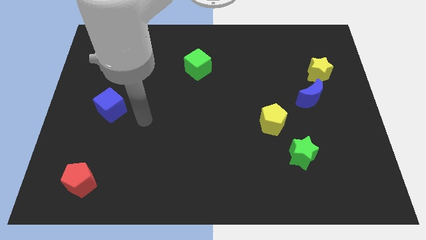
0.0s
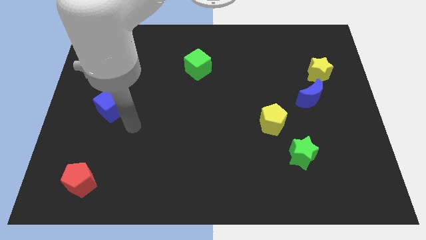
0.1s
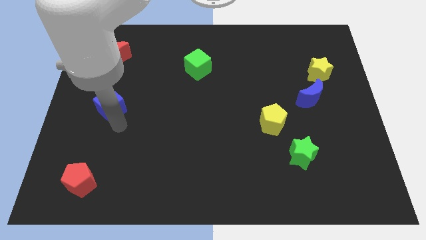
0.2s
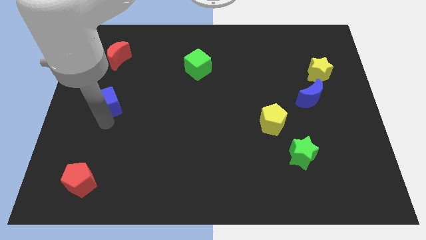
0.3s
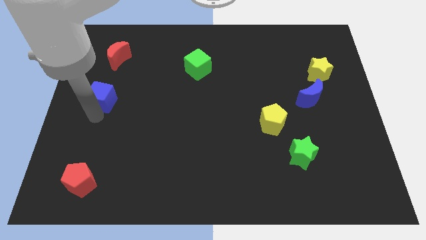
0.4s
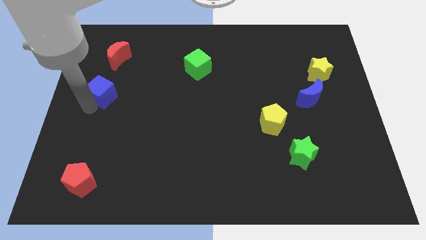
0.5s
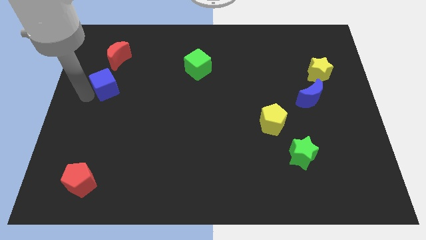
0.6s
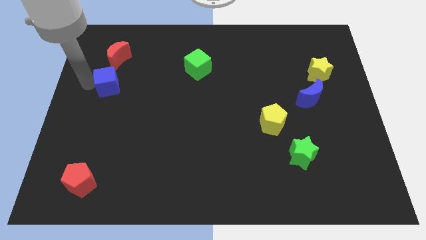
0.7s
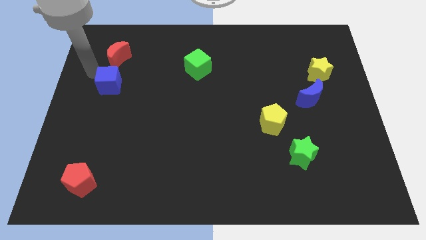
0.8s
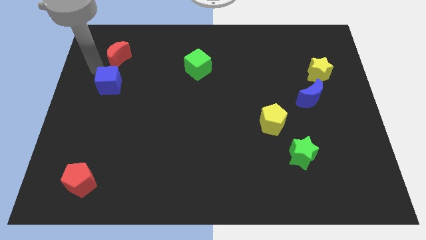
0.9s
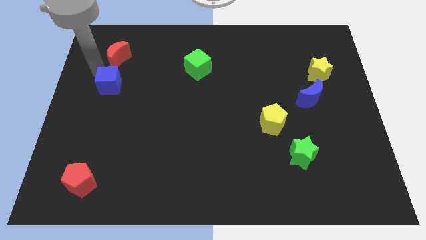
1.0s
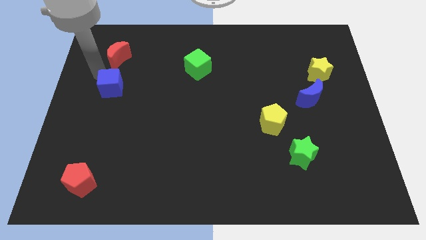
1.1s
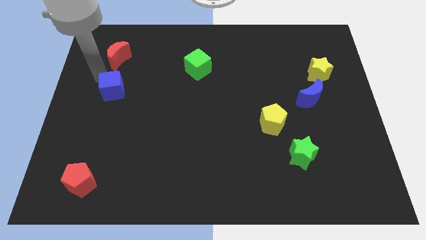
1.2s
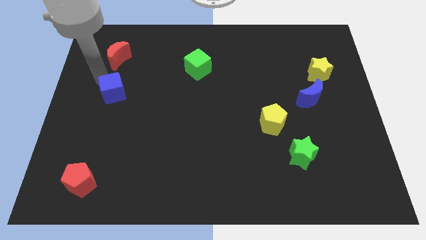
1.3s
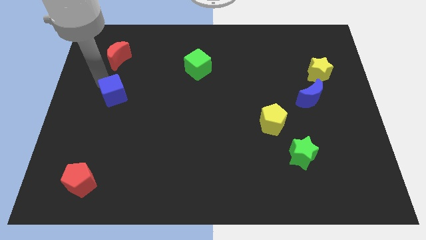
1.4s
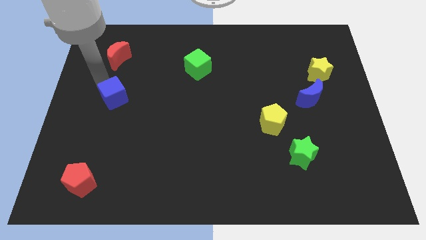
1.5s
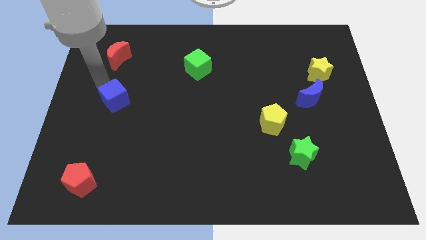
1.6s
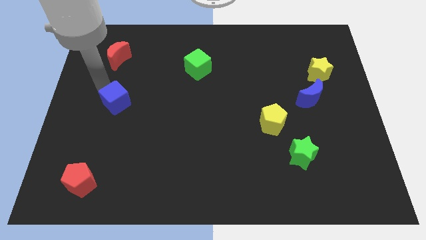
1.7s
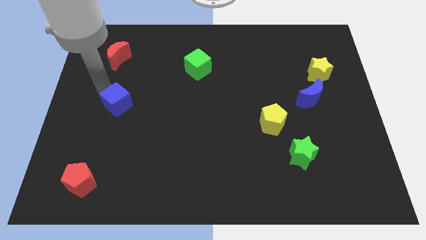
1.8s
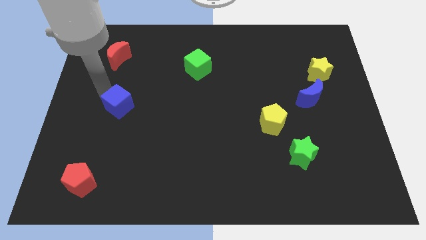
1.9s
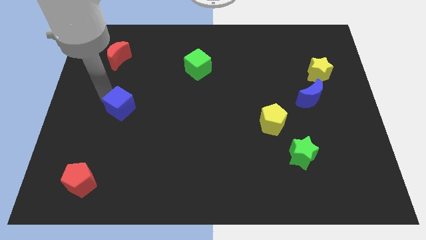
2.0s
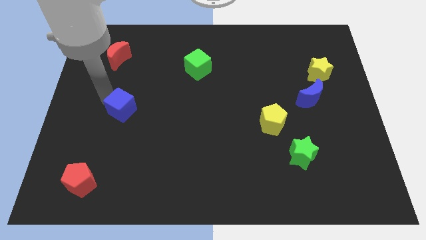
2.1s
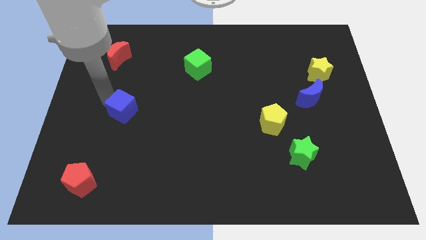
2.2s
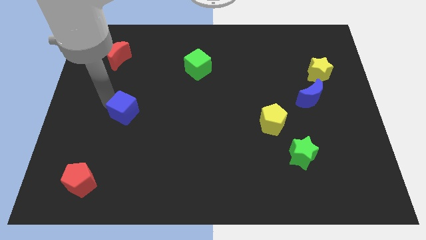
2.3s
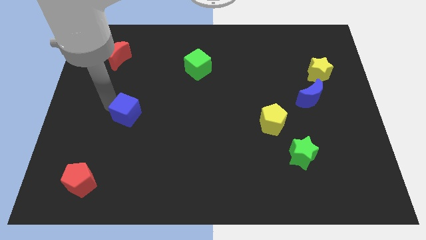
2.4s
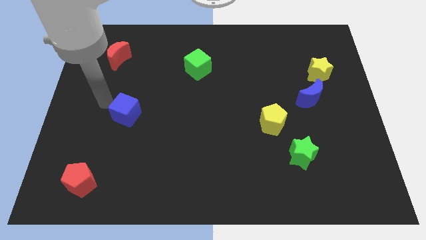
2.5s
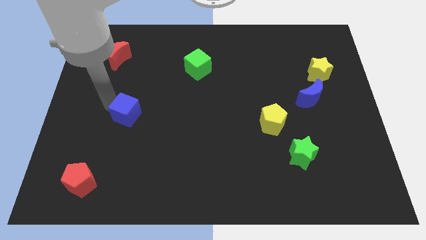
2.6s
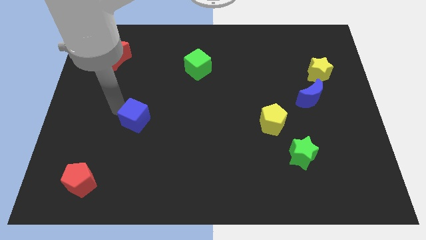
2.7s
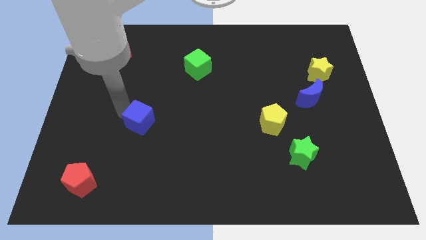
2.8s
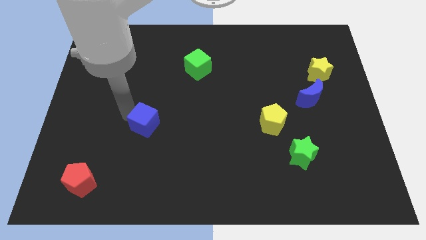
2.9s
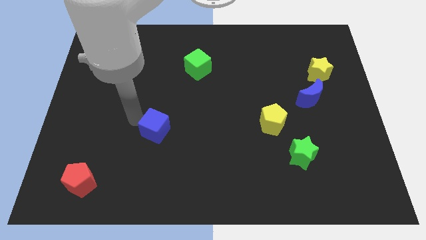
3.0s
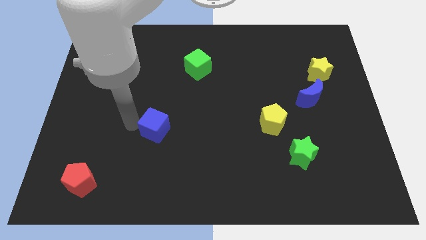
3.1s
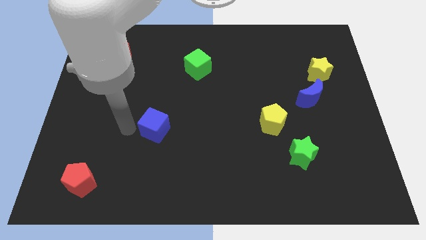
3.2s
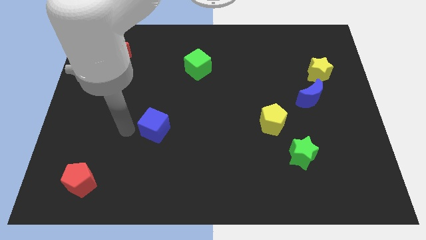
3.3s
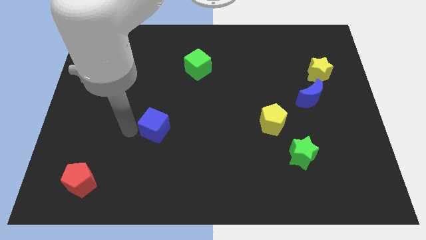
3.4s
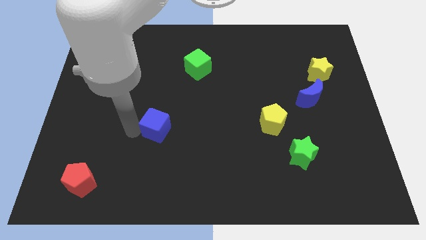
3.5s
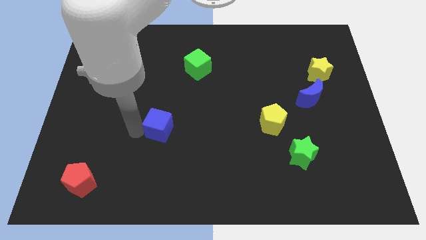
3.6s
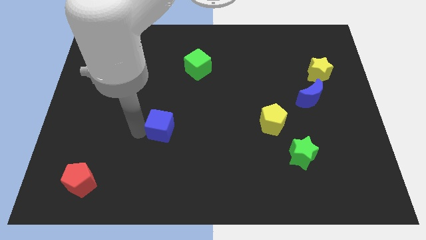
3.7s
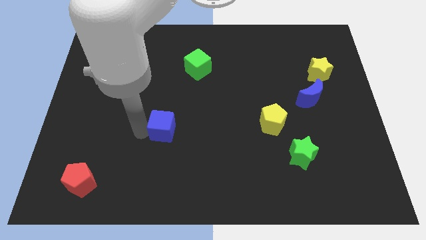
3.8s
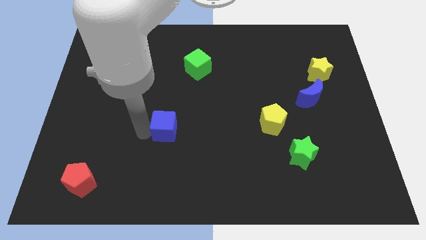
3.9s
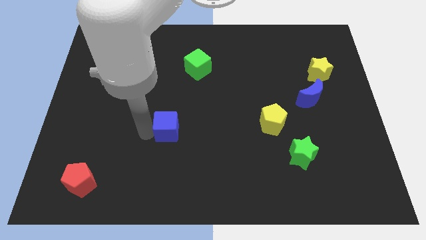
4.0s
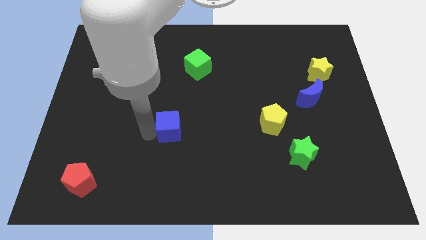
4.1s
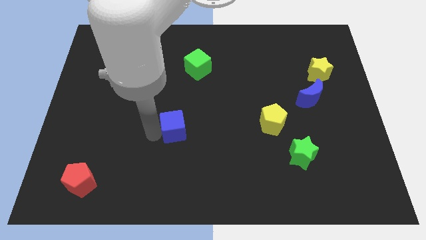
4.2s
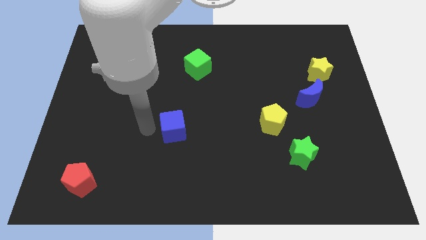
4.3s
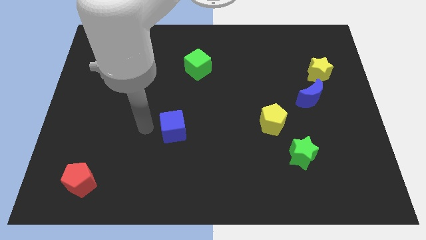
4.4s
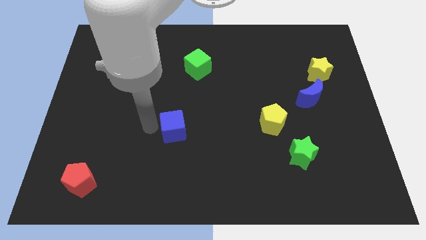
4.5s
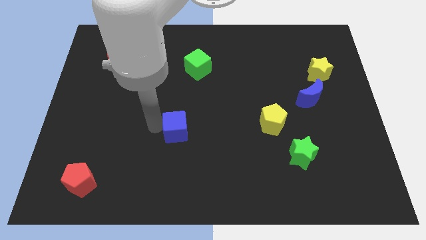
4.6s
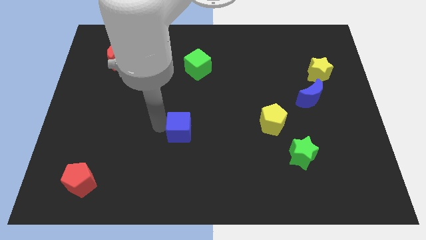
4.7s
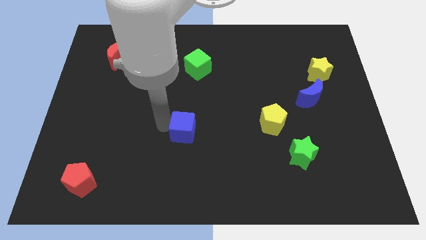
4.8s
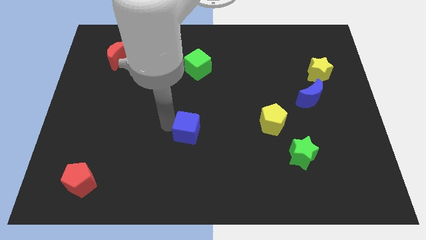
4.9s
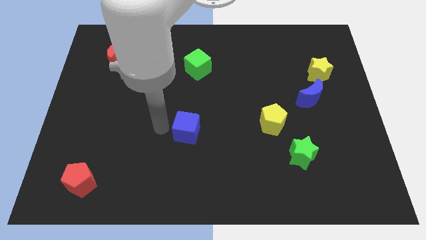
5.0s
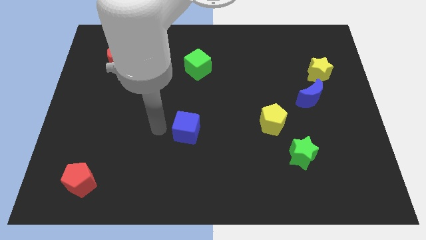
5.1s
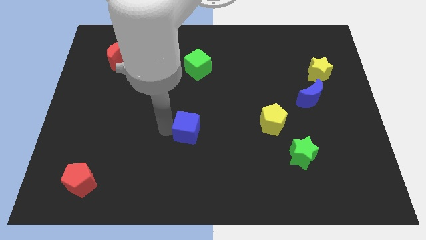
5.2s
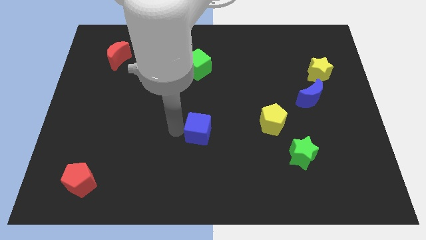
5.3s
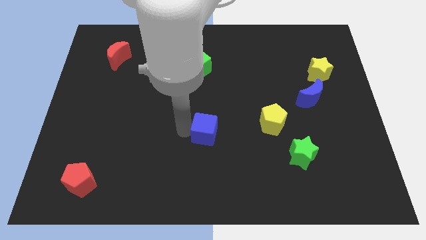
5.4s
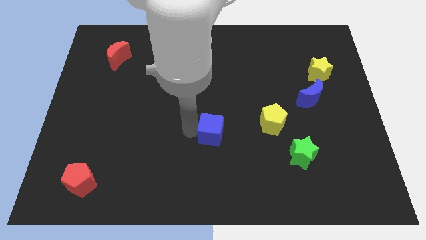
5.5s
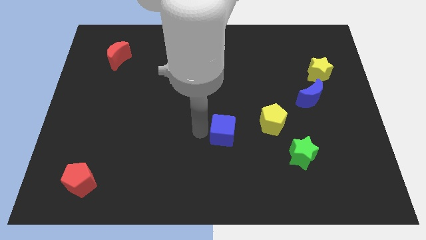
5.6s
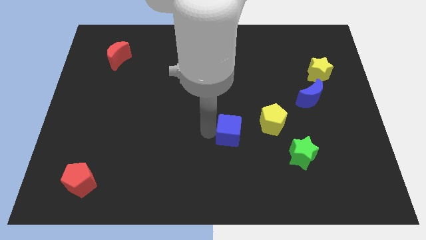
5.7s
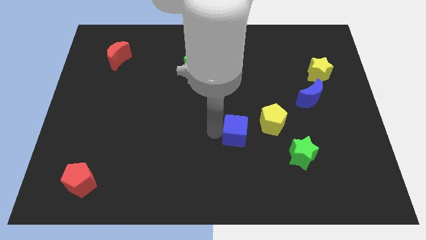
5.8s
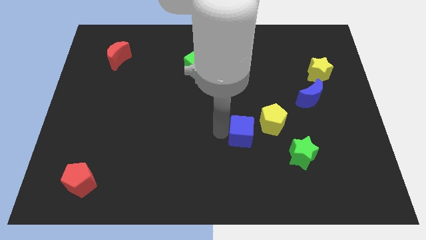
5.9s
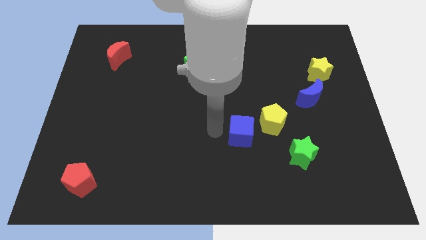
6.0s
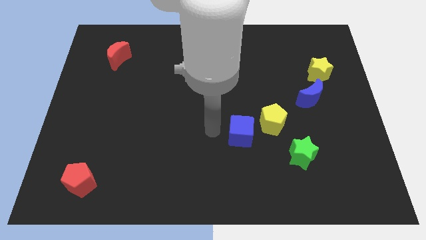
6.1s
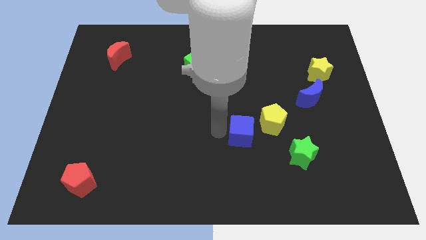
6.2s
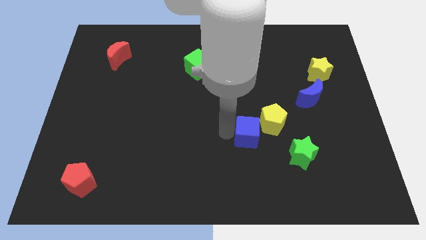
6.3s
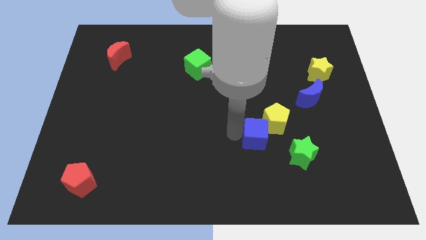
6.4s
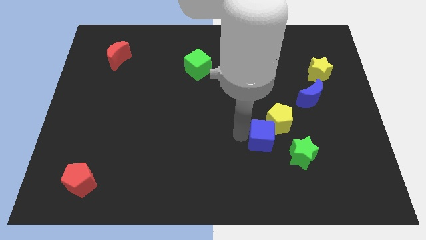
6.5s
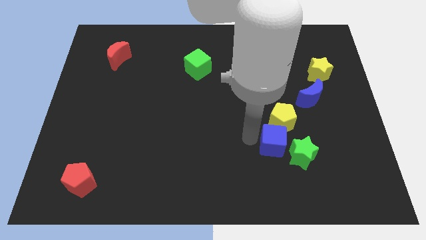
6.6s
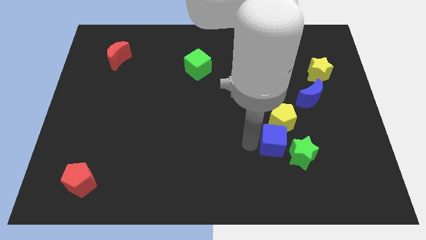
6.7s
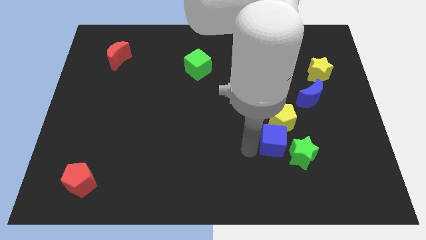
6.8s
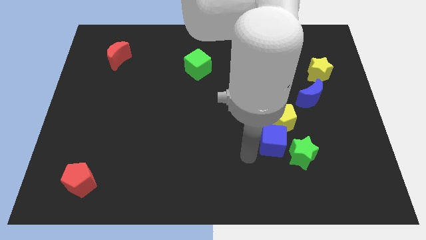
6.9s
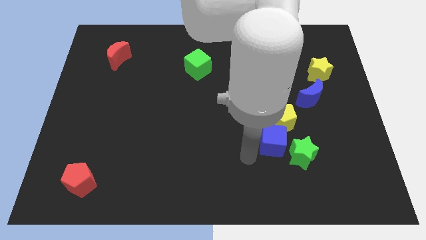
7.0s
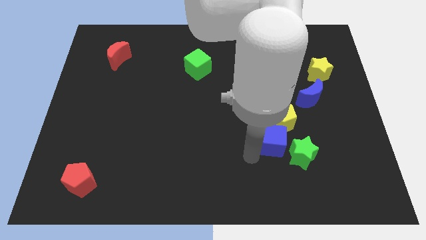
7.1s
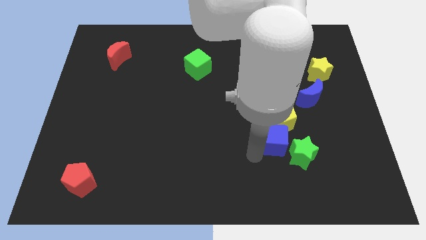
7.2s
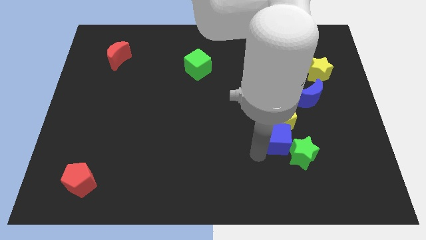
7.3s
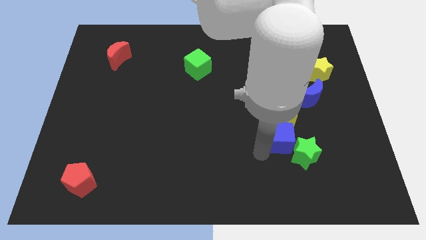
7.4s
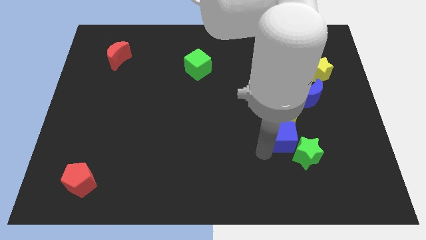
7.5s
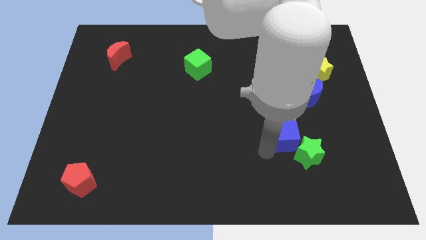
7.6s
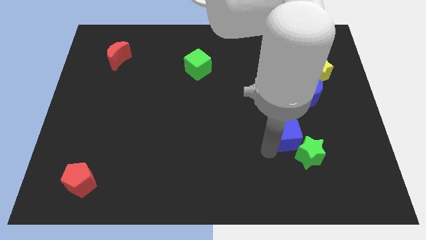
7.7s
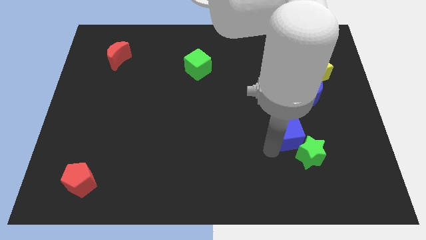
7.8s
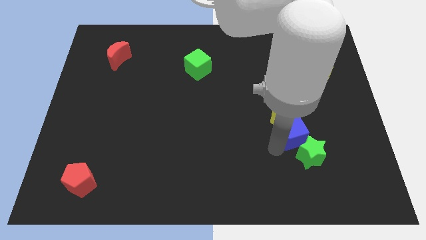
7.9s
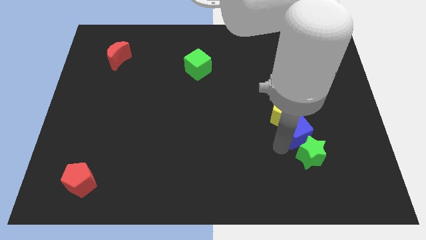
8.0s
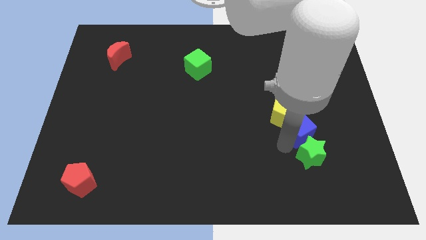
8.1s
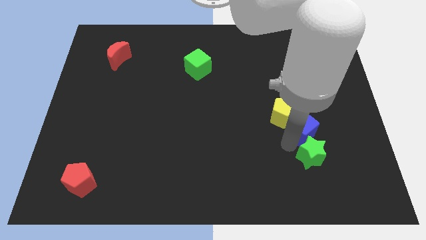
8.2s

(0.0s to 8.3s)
push the blue cube to the right of the yellow pentagon

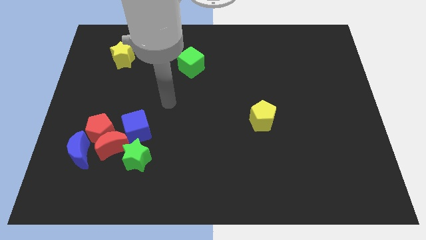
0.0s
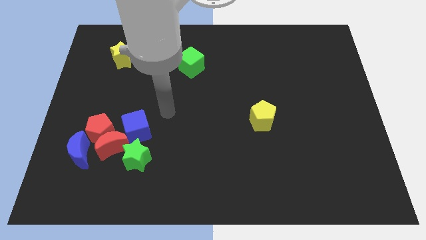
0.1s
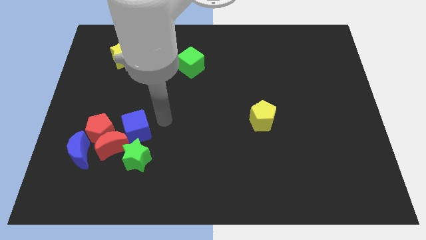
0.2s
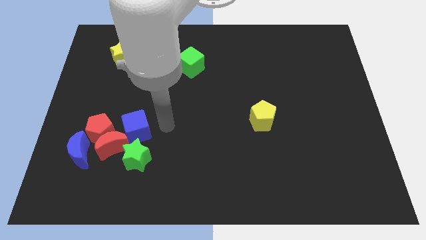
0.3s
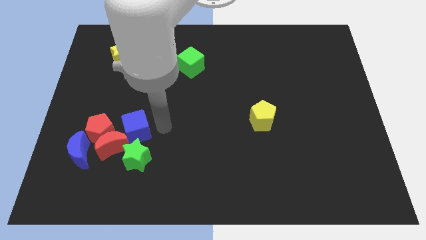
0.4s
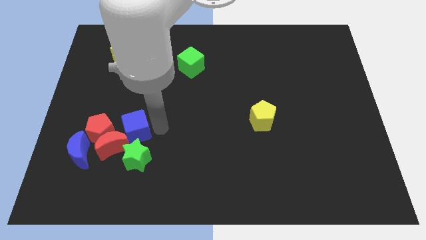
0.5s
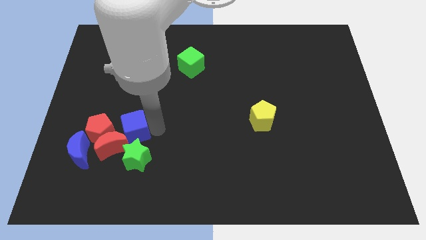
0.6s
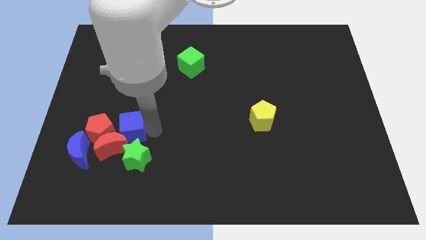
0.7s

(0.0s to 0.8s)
slide the blue cube diagonally up and to the right of the blue moon
